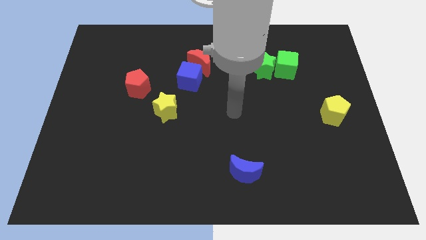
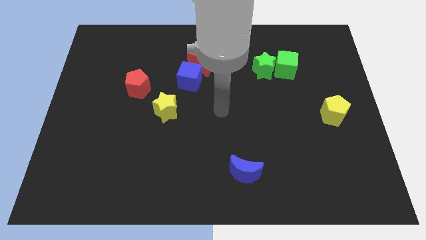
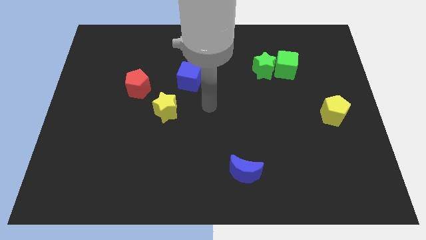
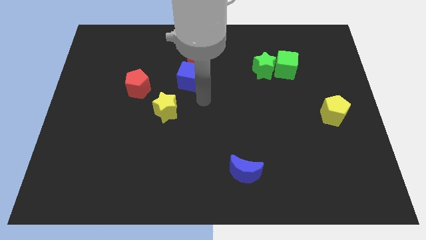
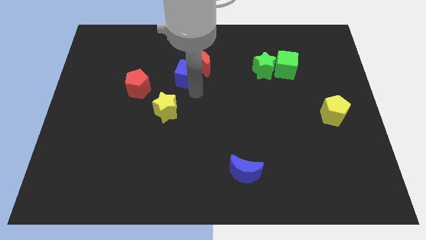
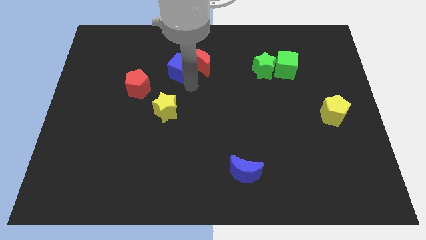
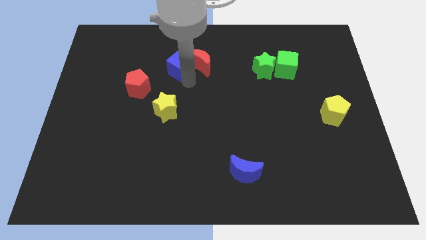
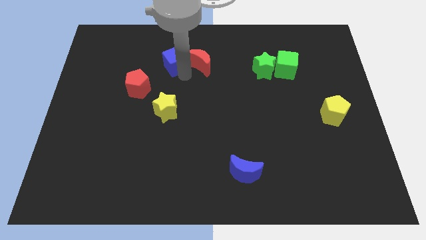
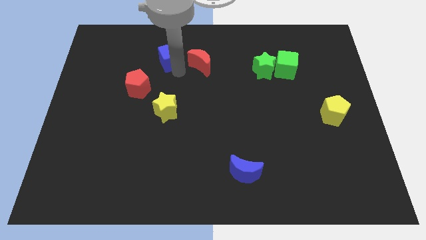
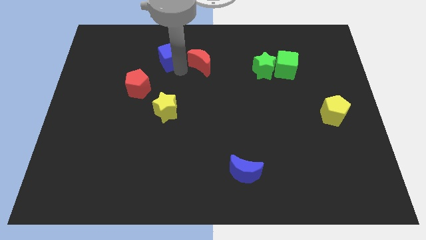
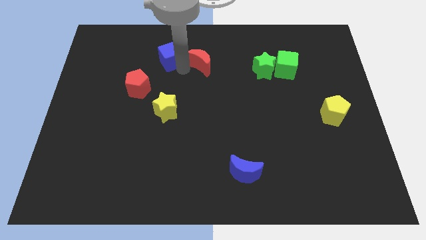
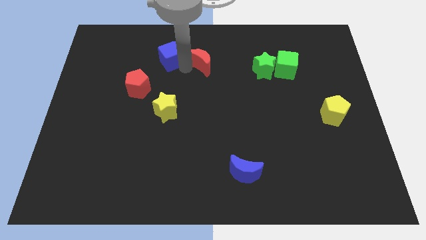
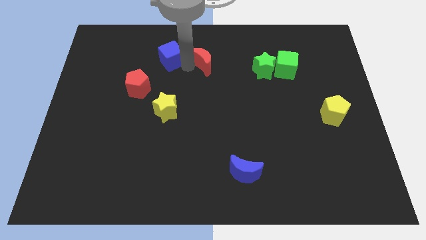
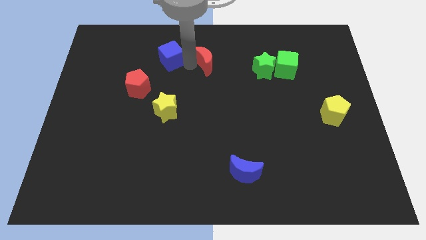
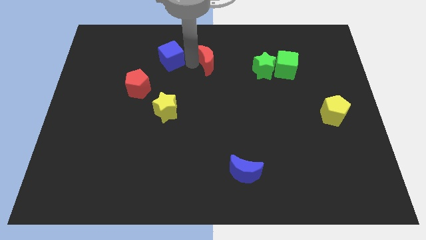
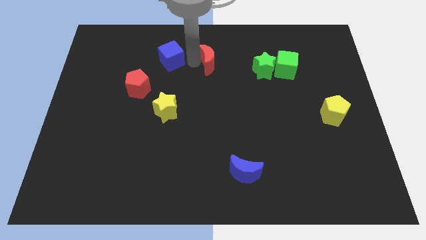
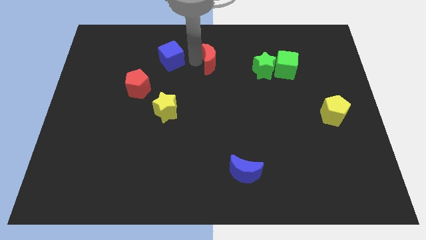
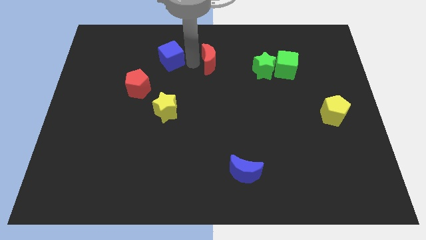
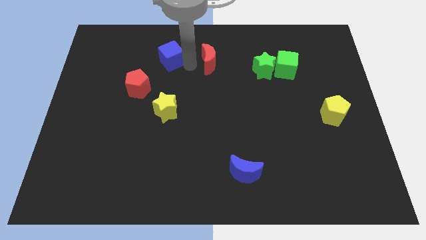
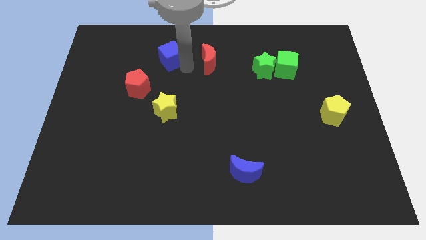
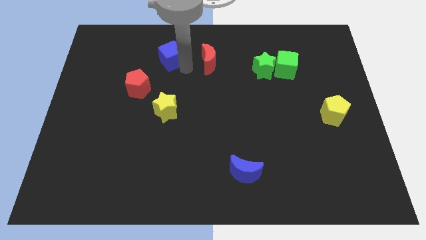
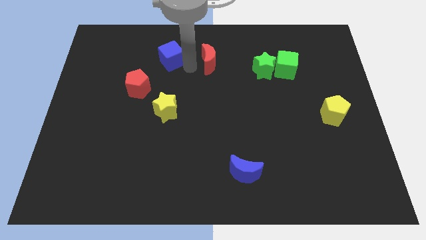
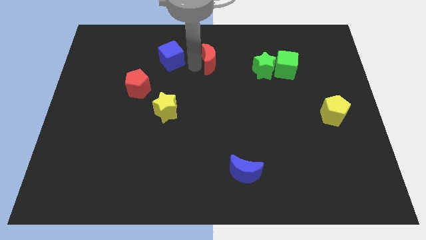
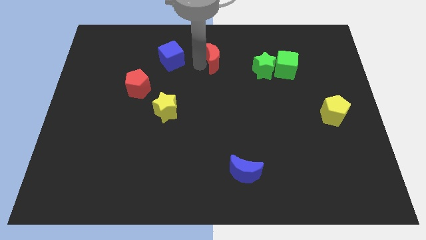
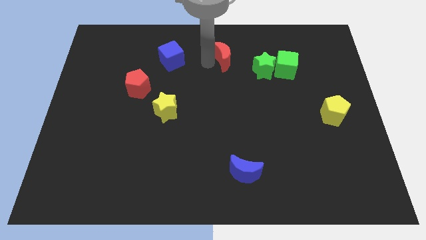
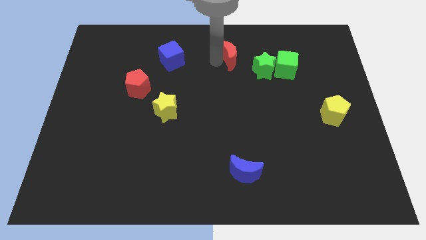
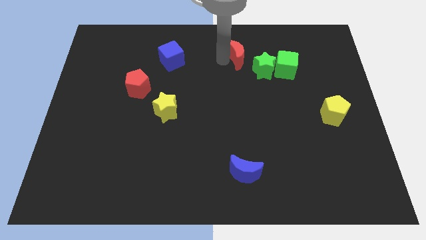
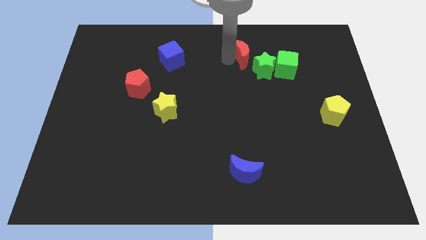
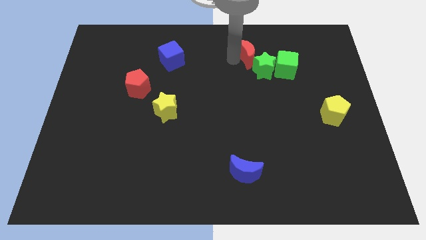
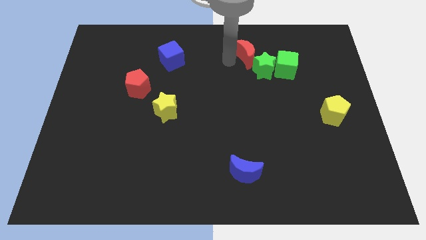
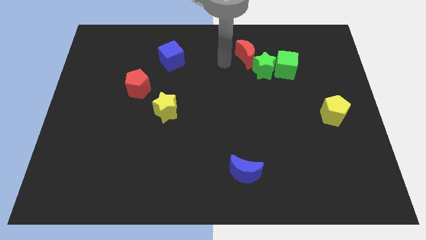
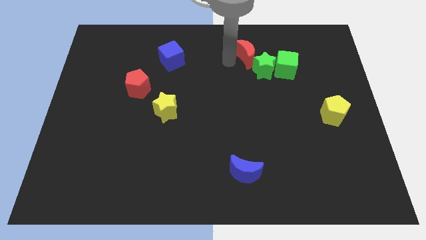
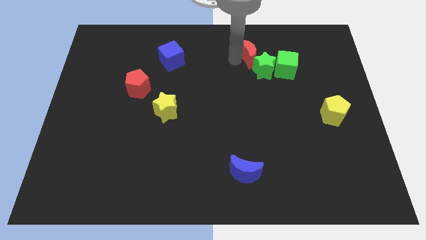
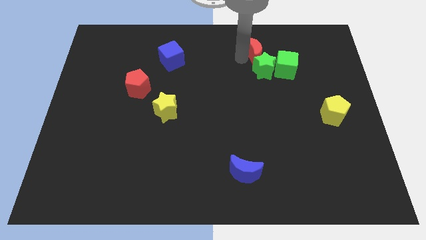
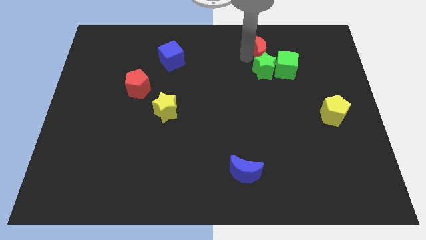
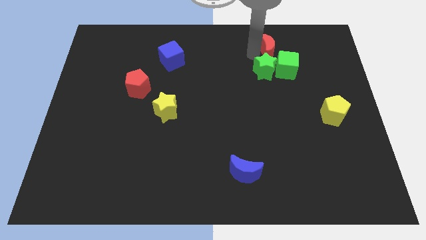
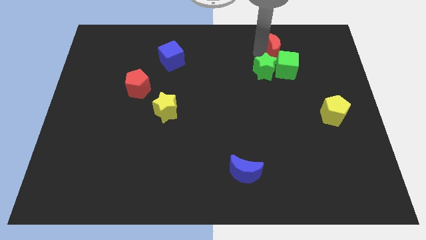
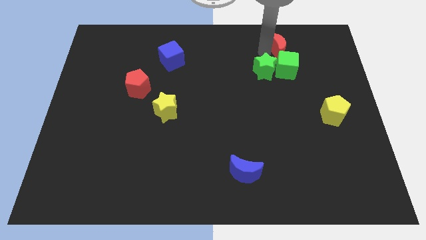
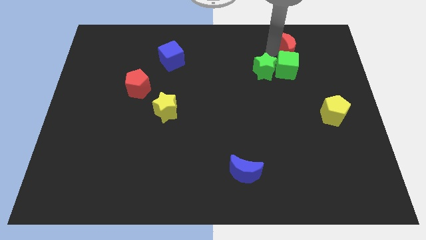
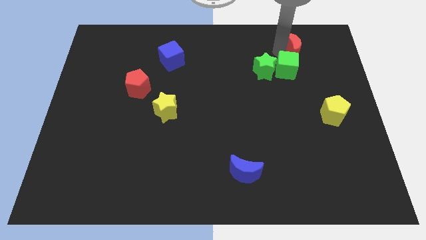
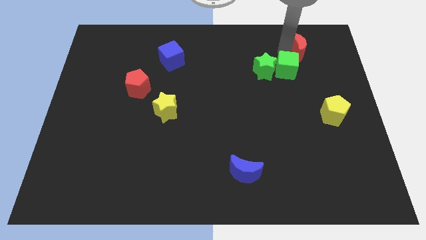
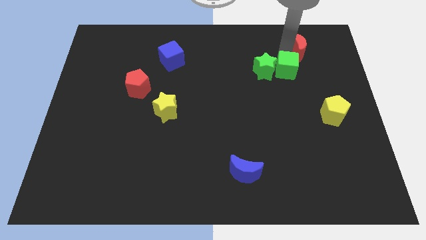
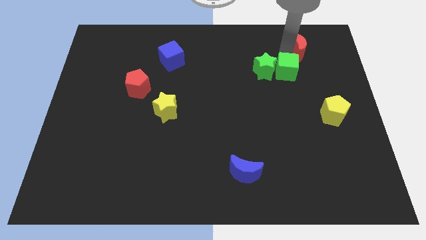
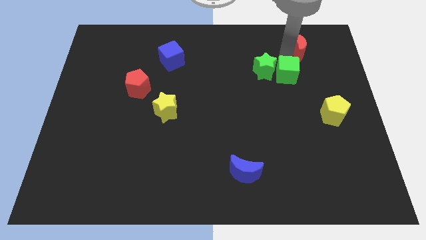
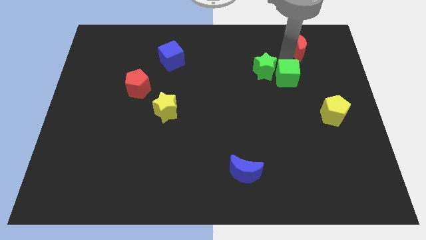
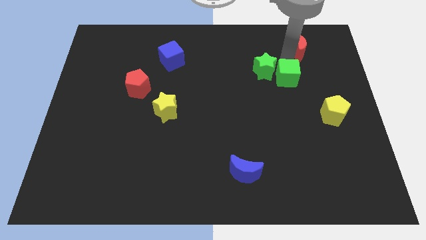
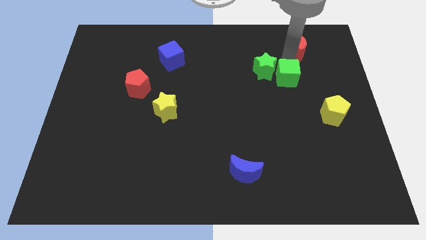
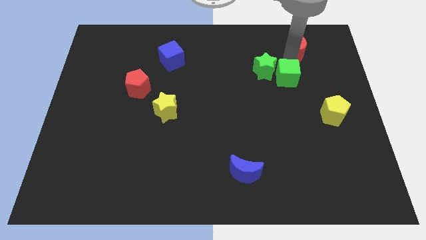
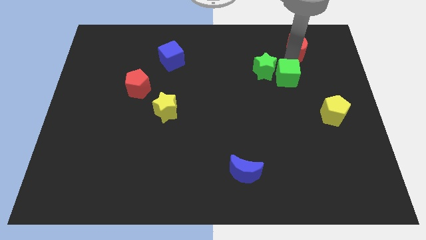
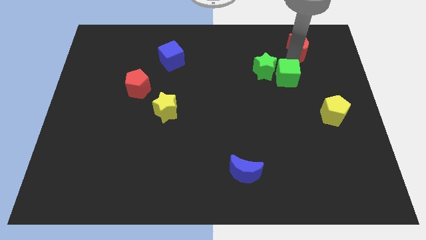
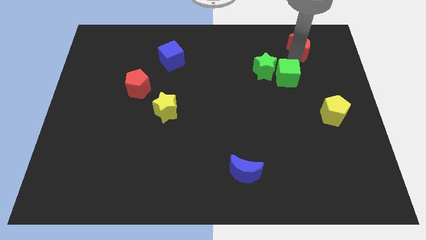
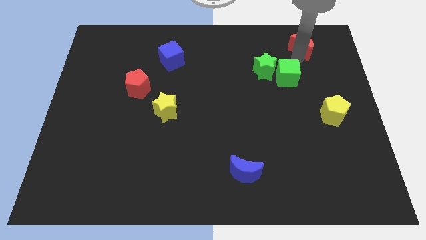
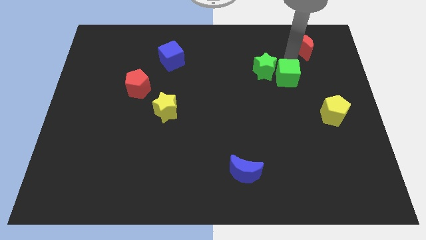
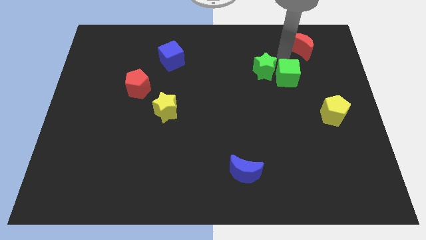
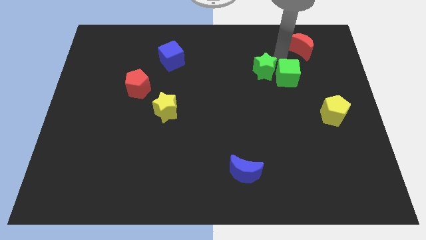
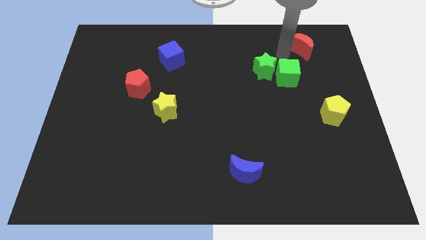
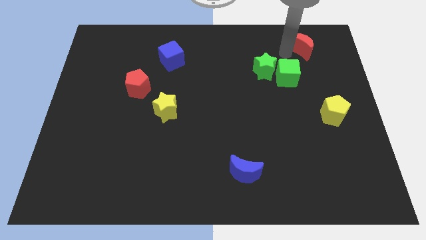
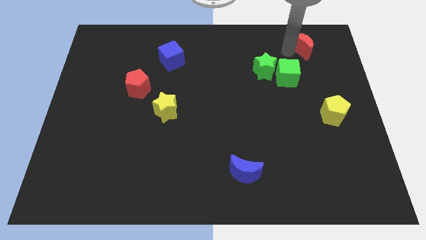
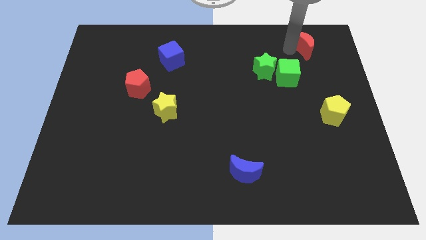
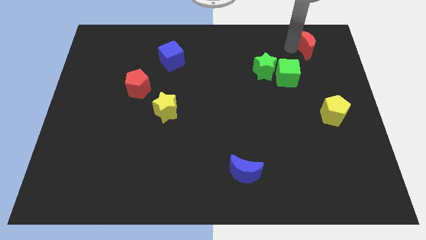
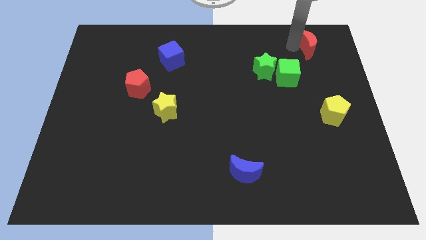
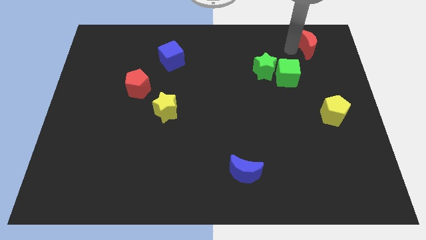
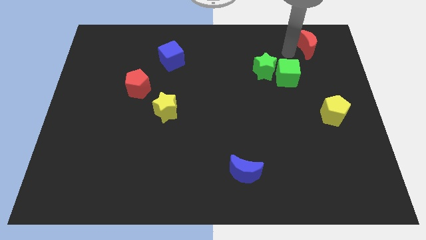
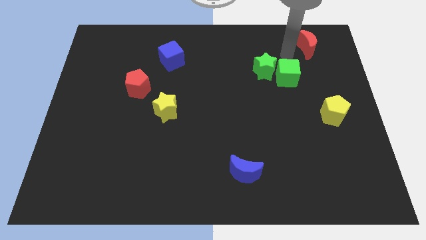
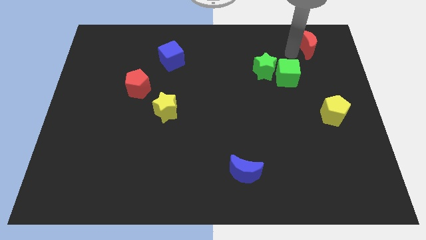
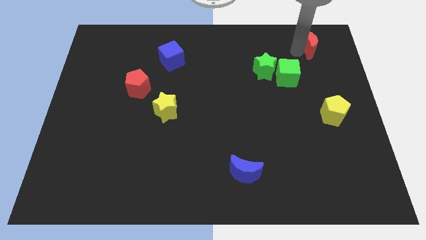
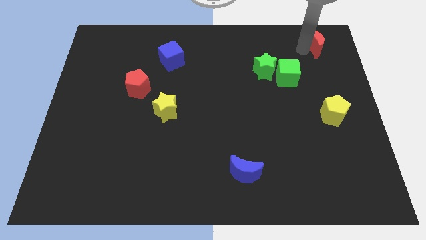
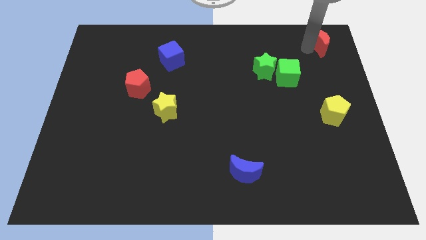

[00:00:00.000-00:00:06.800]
slide the red moon to the top right of the board
